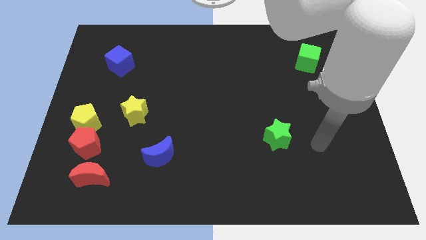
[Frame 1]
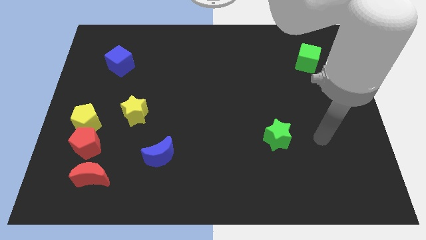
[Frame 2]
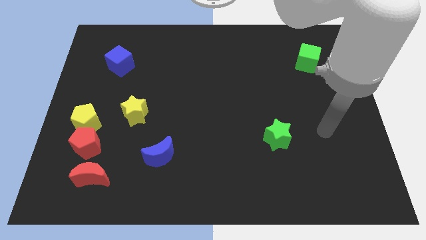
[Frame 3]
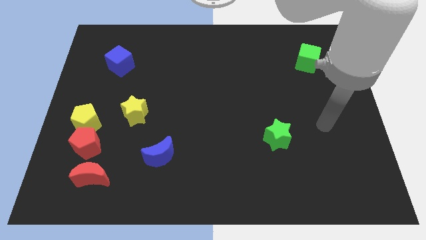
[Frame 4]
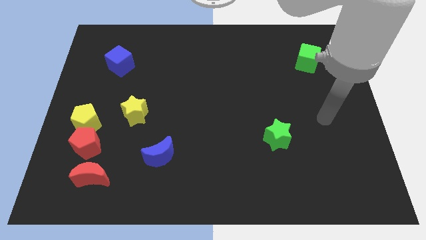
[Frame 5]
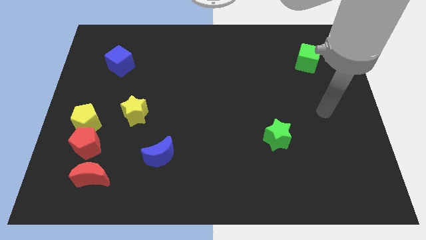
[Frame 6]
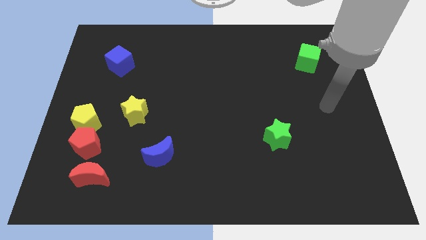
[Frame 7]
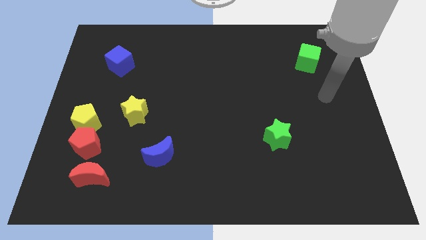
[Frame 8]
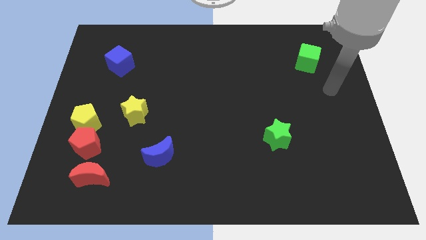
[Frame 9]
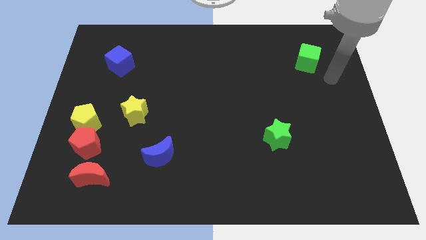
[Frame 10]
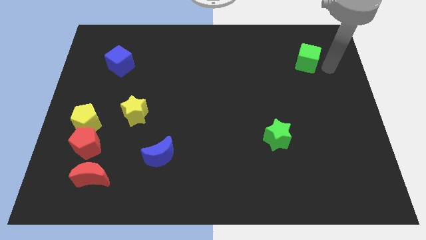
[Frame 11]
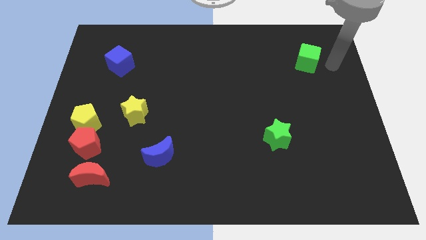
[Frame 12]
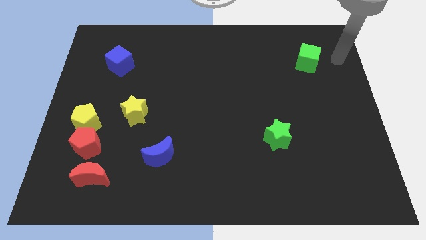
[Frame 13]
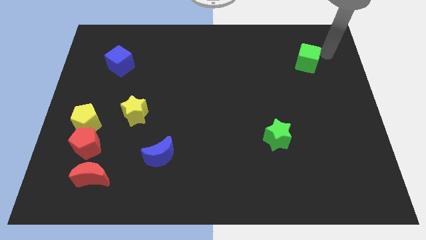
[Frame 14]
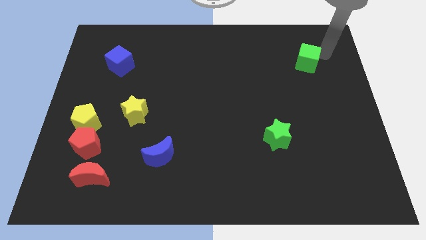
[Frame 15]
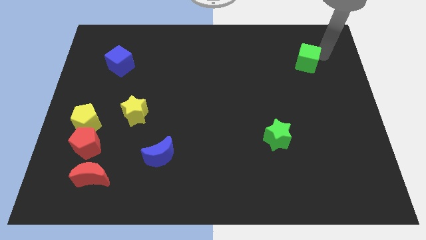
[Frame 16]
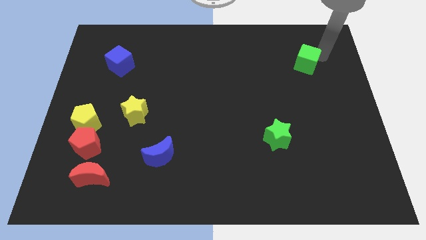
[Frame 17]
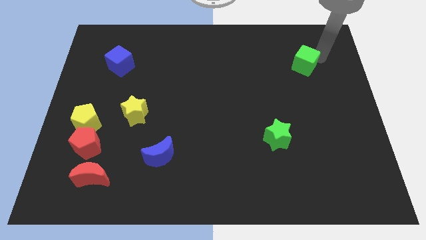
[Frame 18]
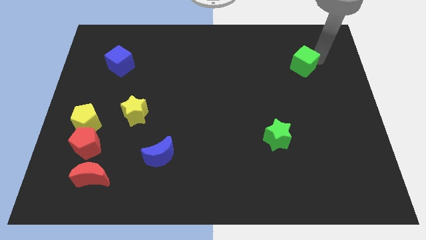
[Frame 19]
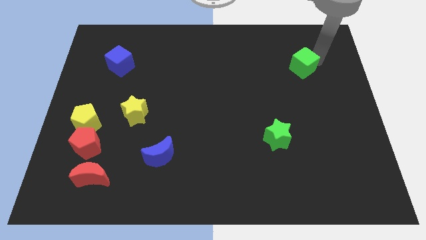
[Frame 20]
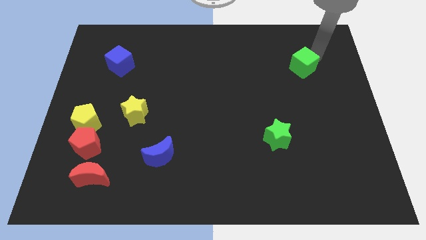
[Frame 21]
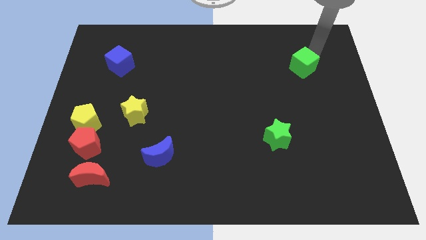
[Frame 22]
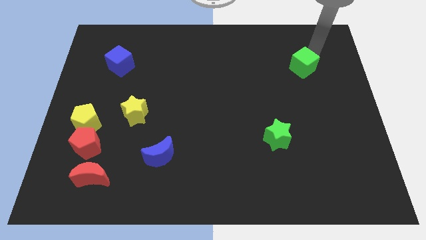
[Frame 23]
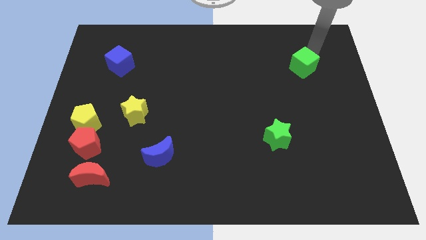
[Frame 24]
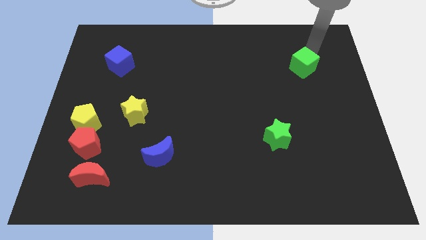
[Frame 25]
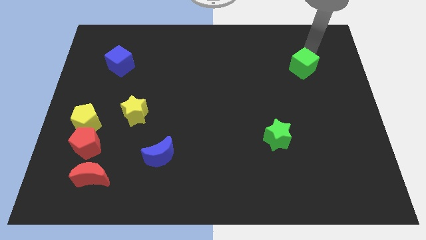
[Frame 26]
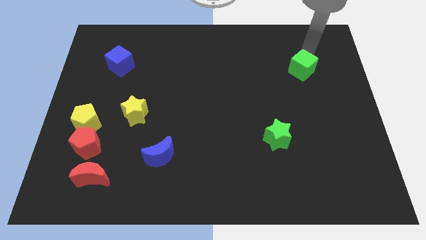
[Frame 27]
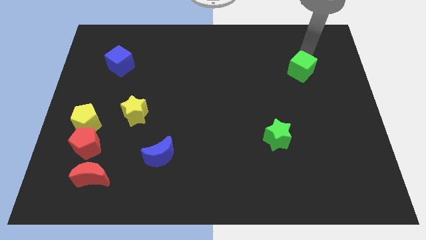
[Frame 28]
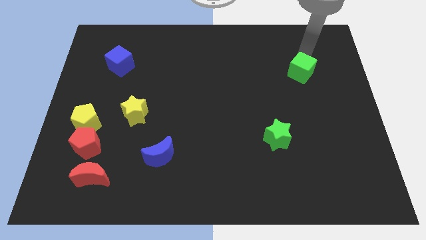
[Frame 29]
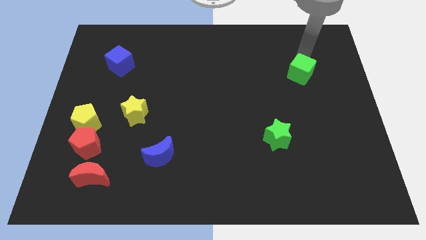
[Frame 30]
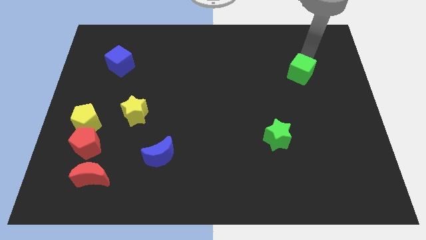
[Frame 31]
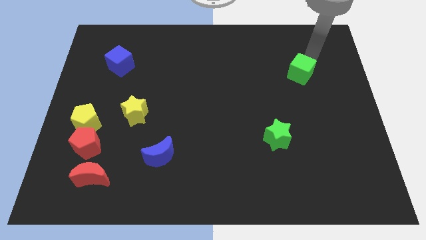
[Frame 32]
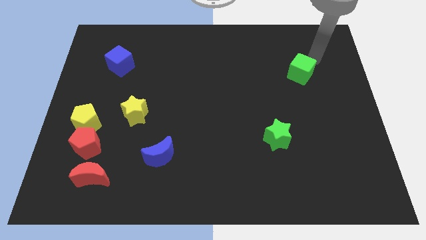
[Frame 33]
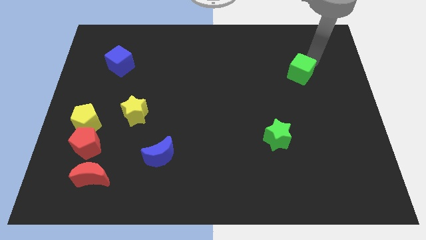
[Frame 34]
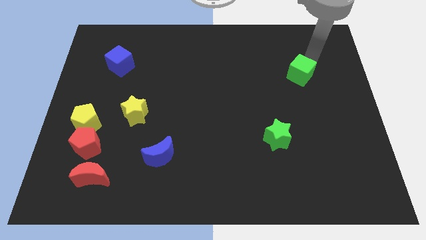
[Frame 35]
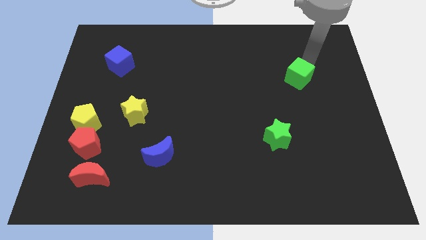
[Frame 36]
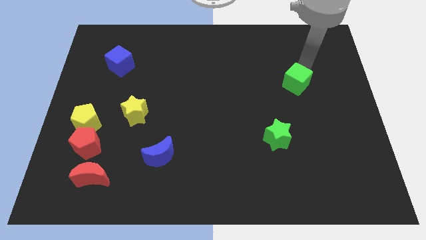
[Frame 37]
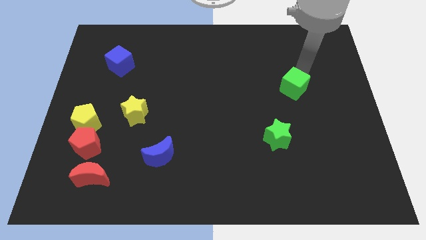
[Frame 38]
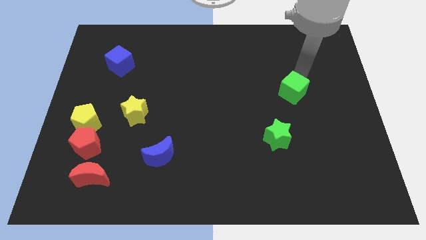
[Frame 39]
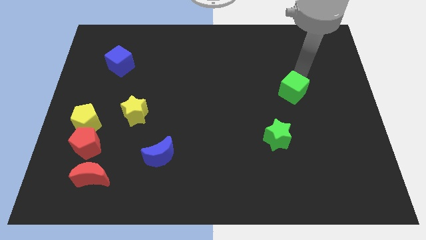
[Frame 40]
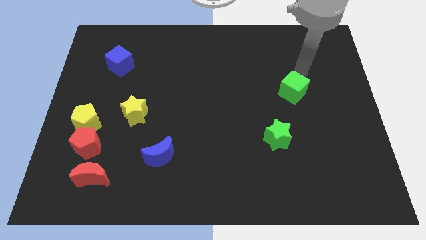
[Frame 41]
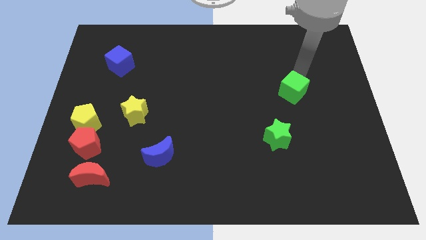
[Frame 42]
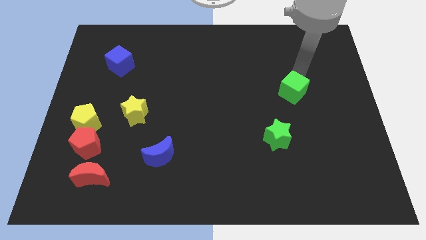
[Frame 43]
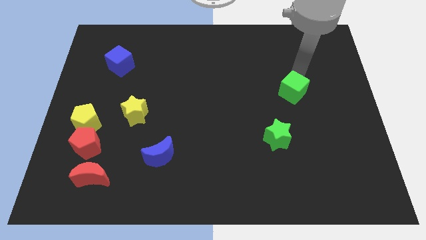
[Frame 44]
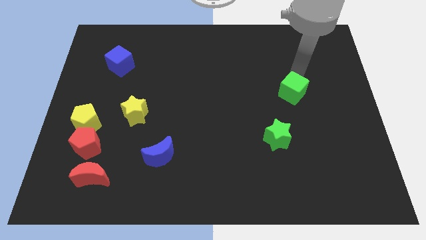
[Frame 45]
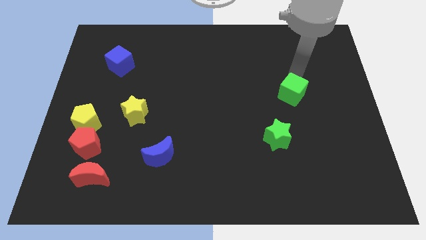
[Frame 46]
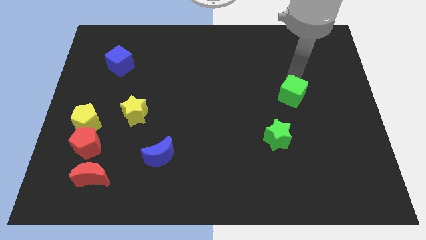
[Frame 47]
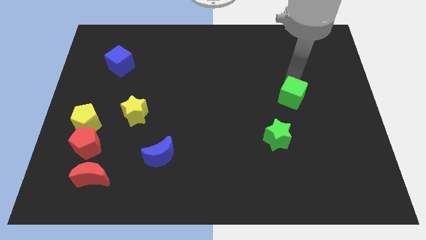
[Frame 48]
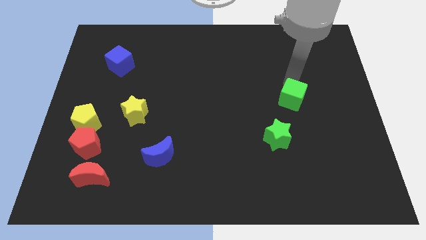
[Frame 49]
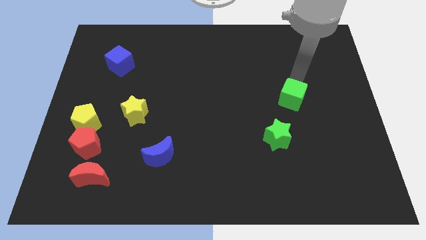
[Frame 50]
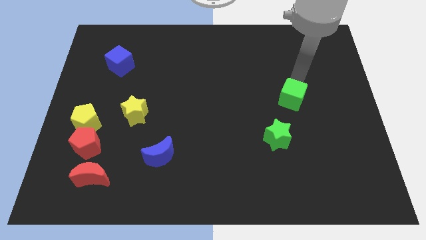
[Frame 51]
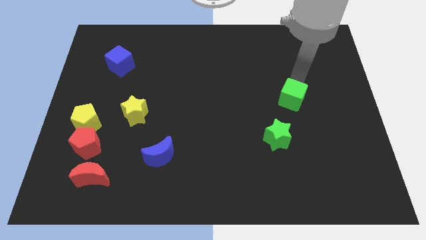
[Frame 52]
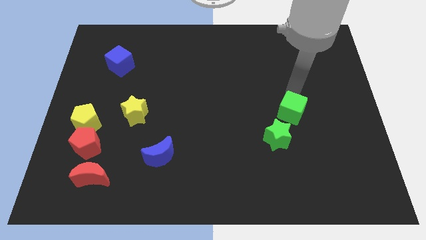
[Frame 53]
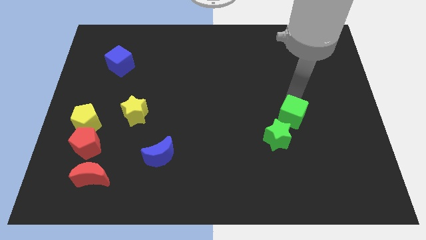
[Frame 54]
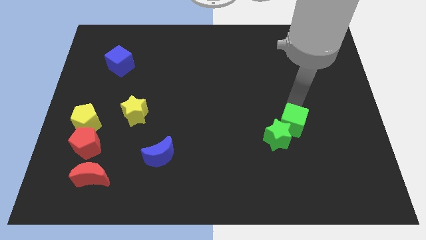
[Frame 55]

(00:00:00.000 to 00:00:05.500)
move the green cube next to the green star
